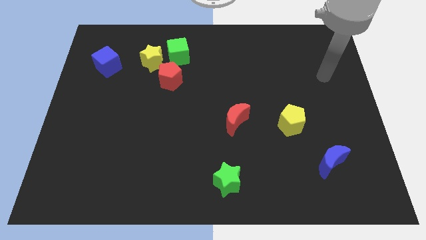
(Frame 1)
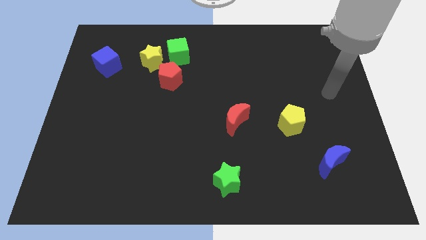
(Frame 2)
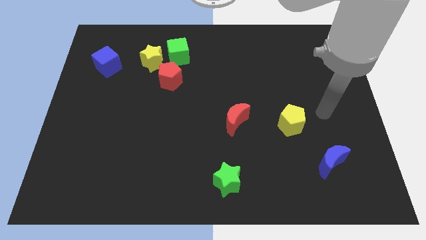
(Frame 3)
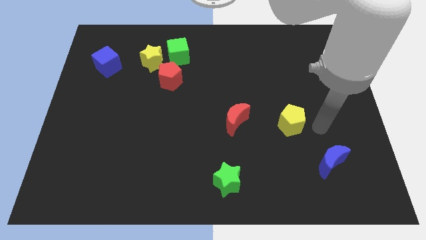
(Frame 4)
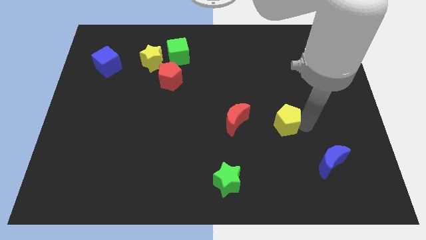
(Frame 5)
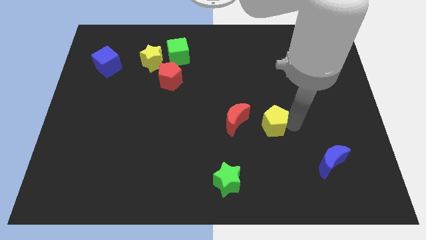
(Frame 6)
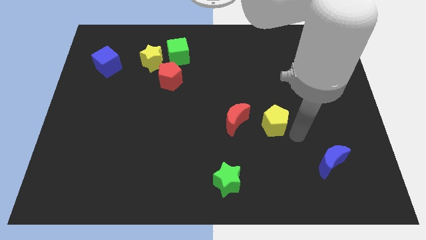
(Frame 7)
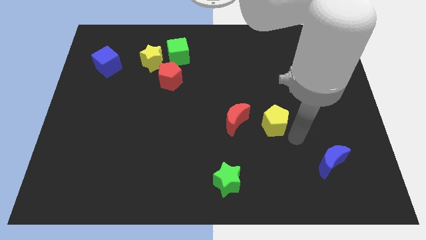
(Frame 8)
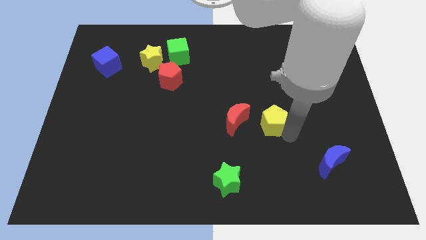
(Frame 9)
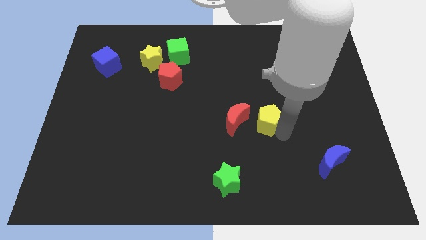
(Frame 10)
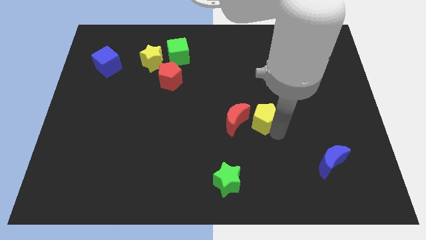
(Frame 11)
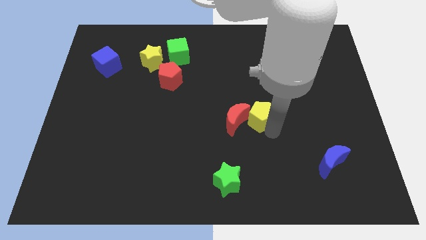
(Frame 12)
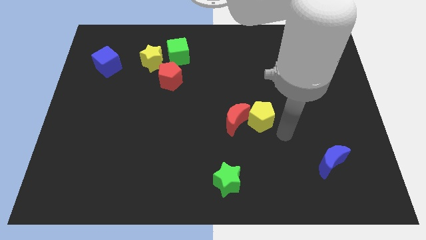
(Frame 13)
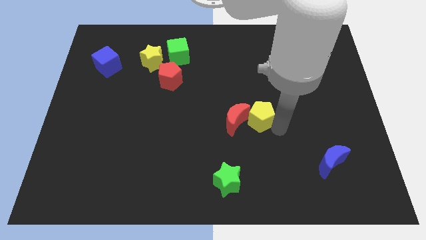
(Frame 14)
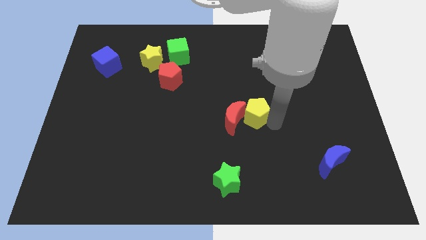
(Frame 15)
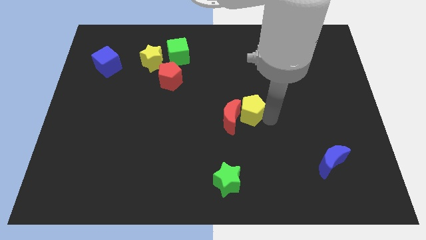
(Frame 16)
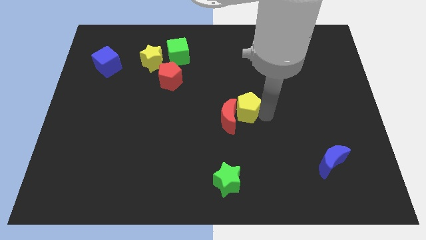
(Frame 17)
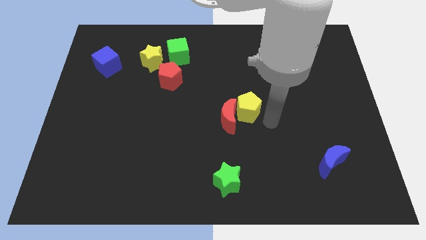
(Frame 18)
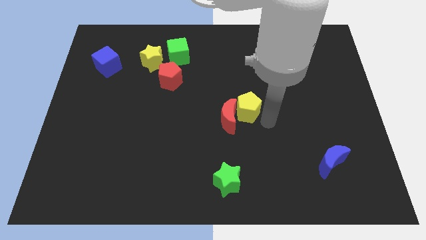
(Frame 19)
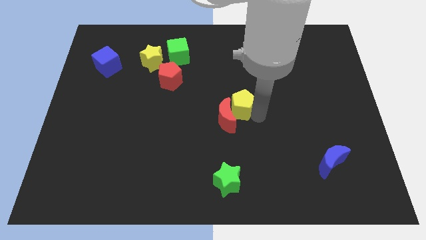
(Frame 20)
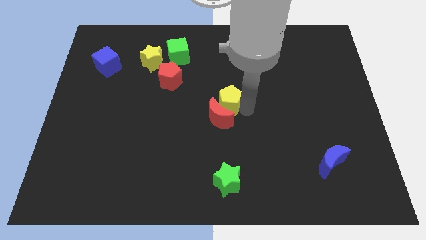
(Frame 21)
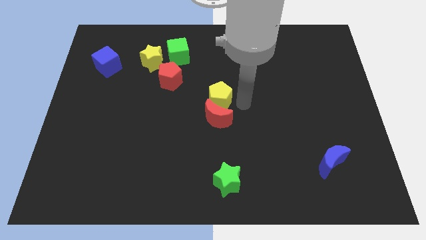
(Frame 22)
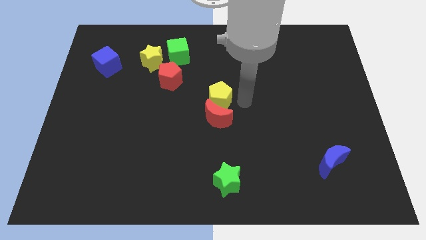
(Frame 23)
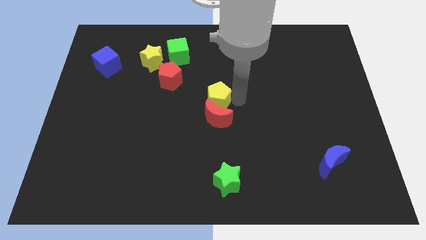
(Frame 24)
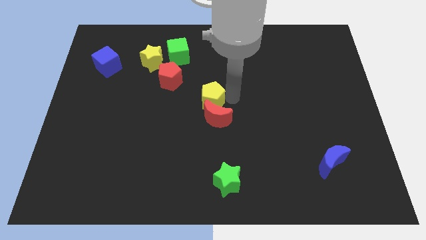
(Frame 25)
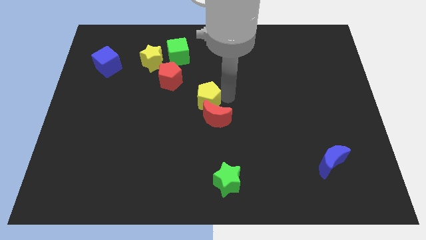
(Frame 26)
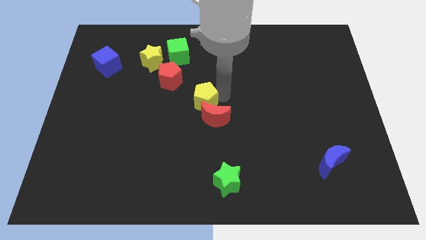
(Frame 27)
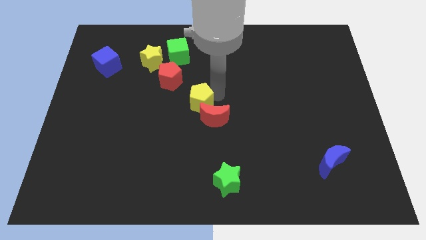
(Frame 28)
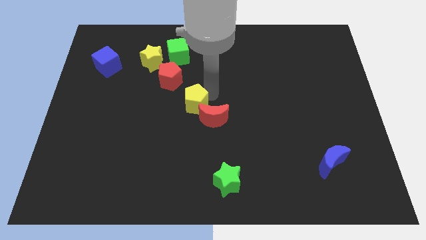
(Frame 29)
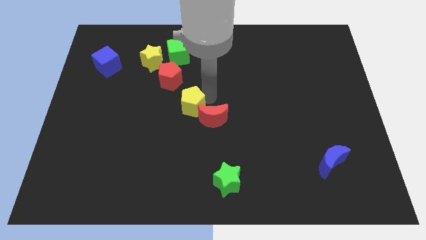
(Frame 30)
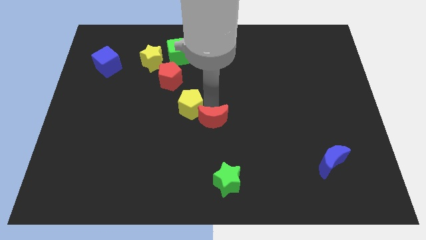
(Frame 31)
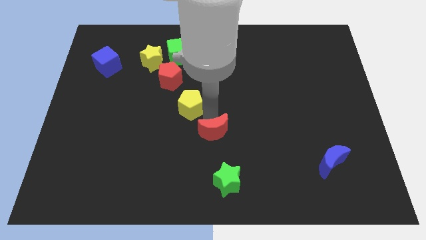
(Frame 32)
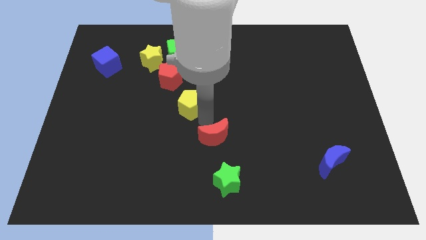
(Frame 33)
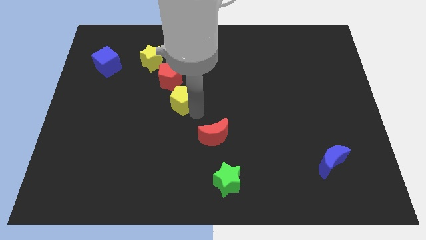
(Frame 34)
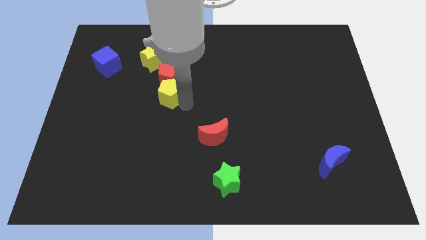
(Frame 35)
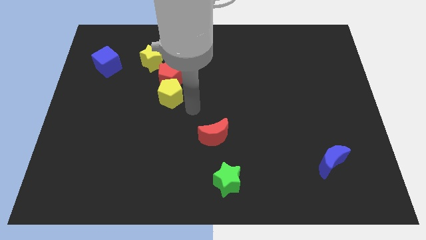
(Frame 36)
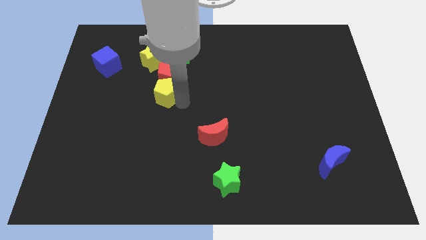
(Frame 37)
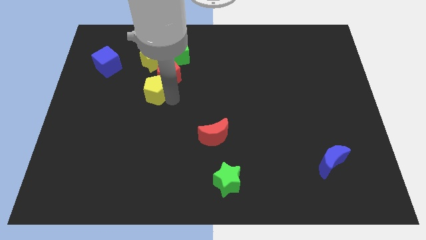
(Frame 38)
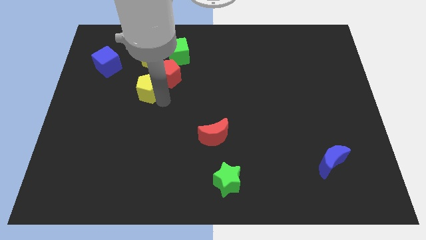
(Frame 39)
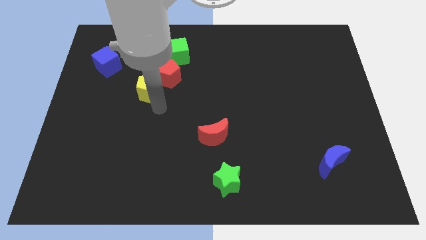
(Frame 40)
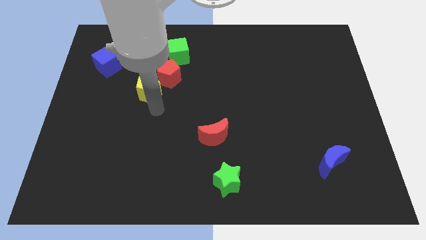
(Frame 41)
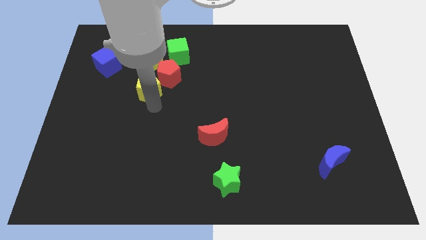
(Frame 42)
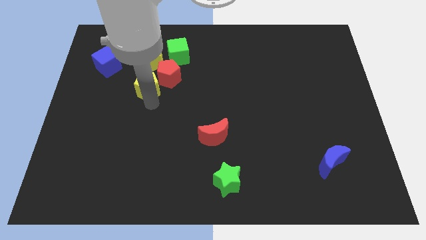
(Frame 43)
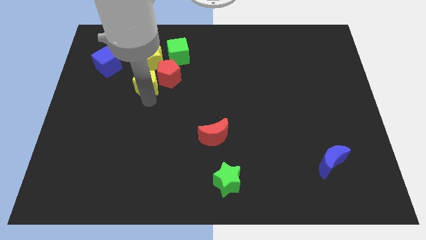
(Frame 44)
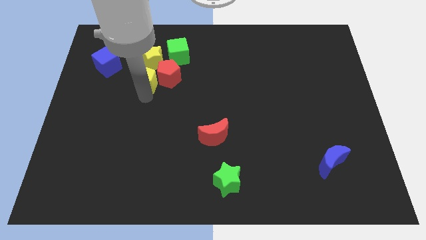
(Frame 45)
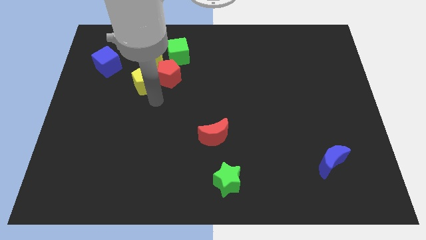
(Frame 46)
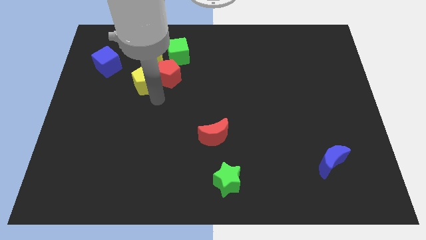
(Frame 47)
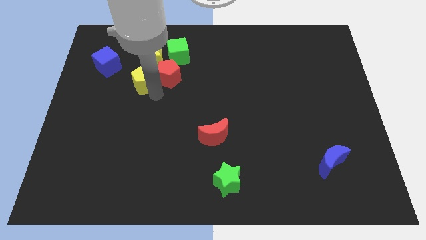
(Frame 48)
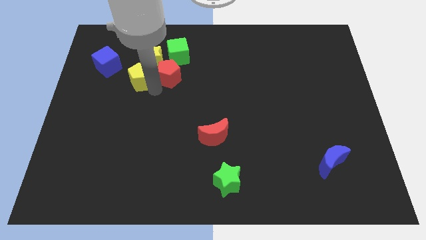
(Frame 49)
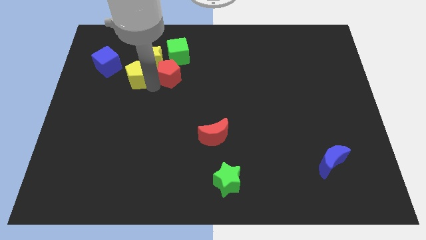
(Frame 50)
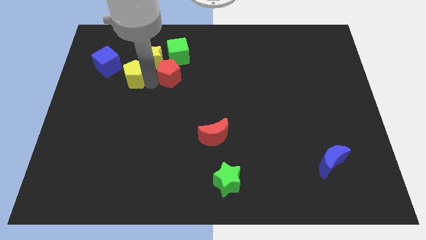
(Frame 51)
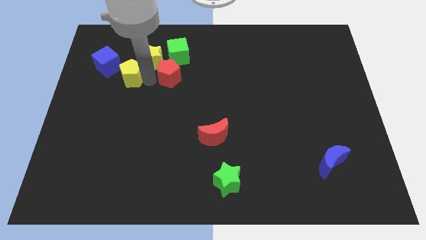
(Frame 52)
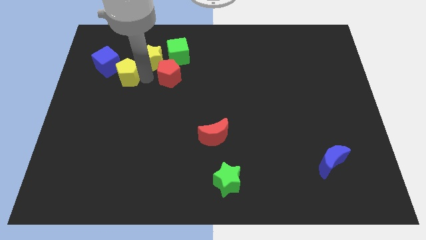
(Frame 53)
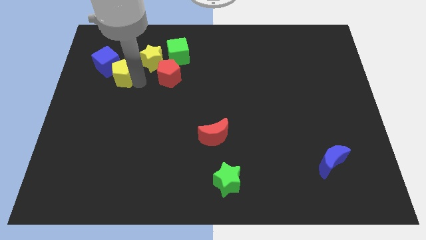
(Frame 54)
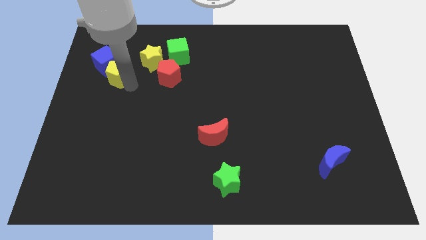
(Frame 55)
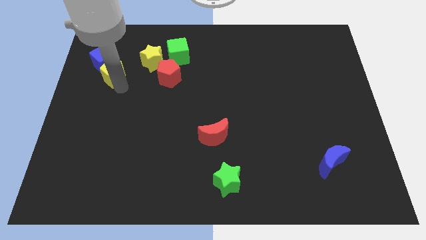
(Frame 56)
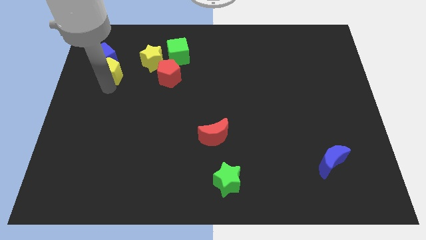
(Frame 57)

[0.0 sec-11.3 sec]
slide the yellow pentagon left of the yellow star

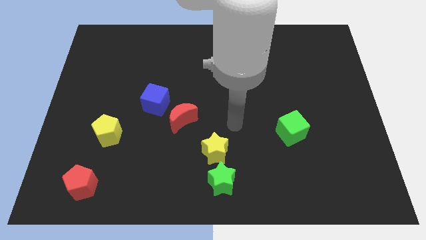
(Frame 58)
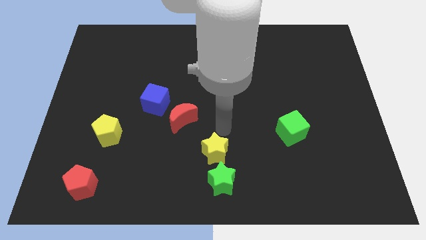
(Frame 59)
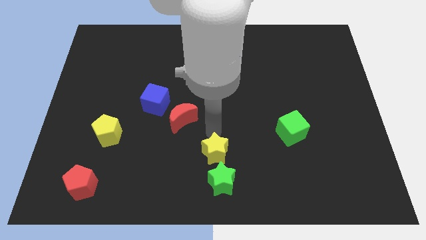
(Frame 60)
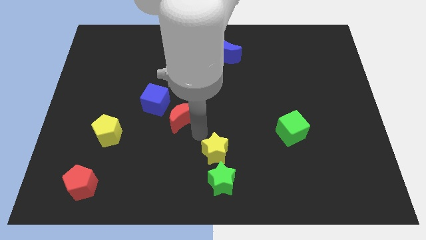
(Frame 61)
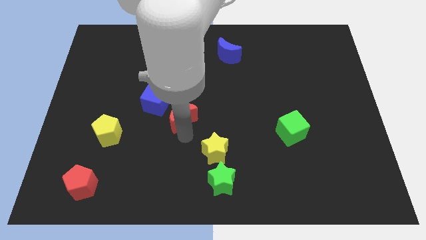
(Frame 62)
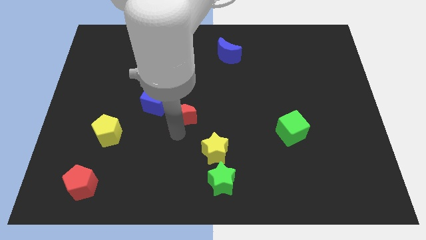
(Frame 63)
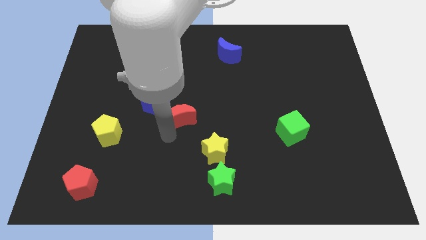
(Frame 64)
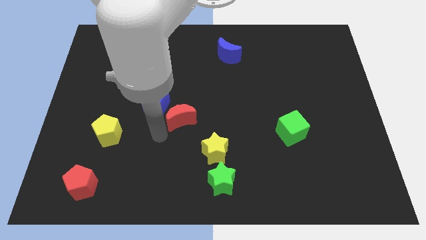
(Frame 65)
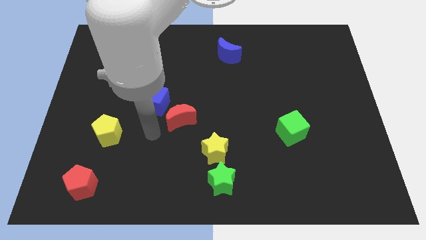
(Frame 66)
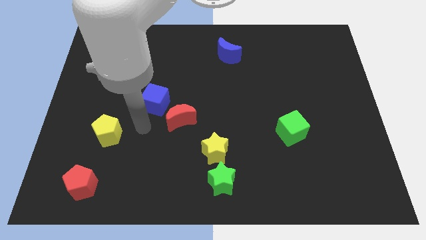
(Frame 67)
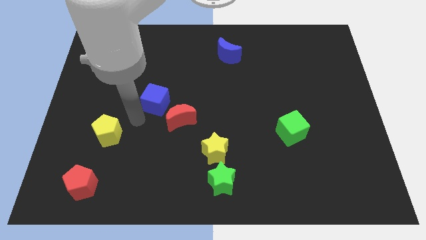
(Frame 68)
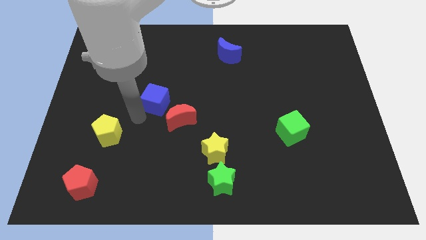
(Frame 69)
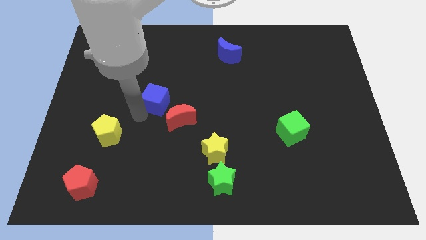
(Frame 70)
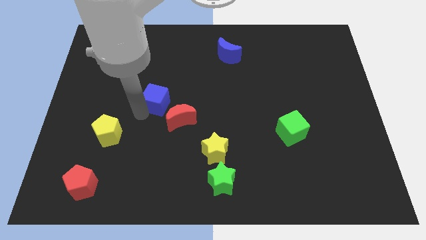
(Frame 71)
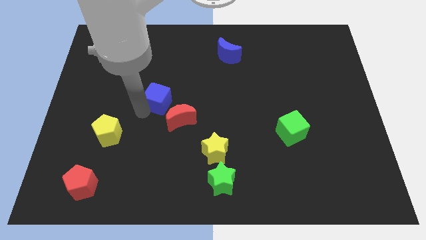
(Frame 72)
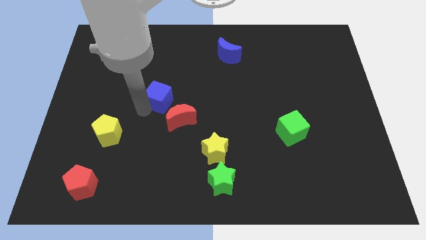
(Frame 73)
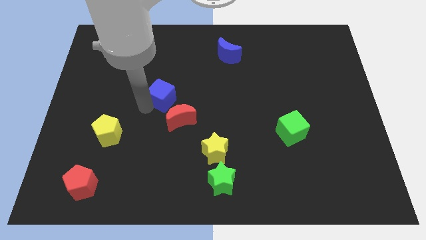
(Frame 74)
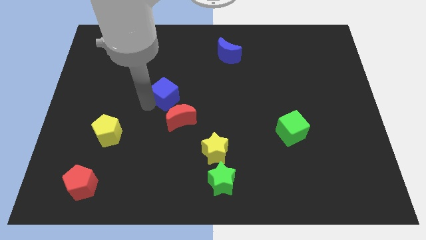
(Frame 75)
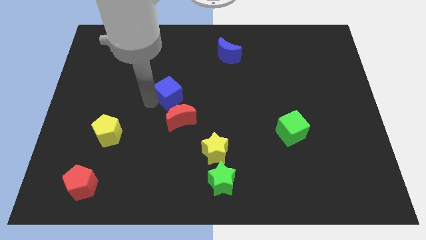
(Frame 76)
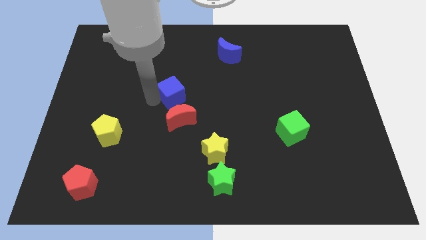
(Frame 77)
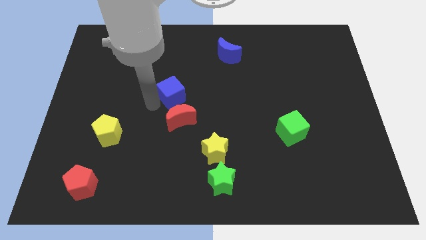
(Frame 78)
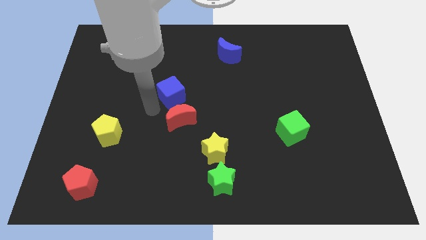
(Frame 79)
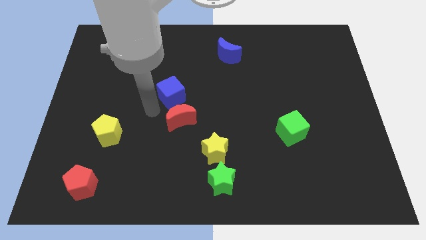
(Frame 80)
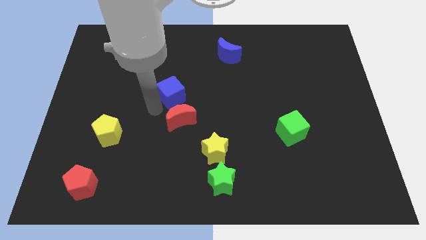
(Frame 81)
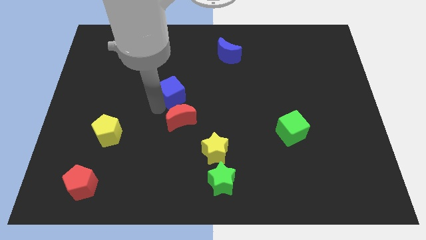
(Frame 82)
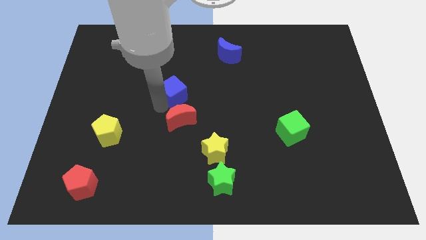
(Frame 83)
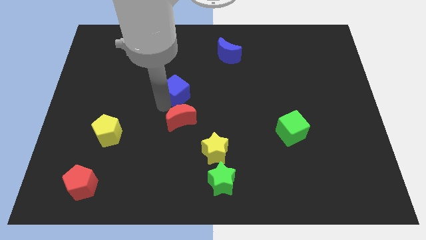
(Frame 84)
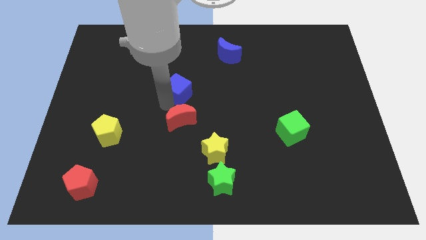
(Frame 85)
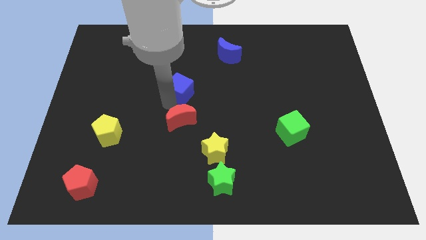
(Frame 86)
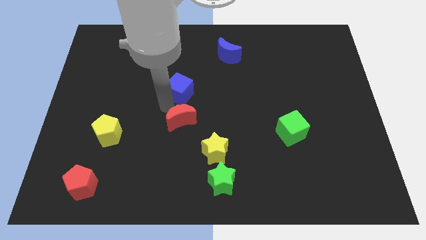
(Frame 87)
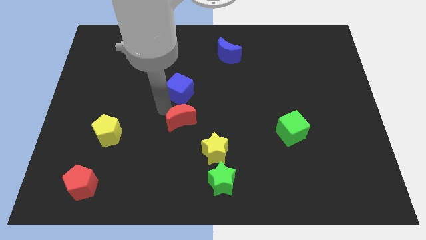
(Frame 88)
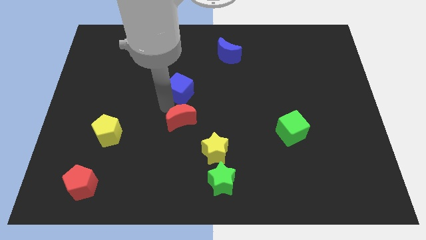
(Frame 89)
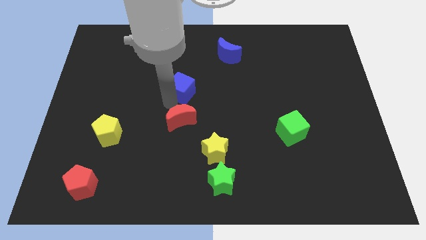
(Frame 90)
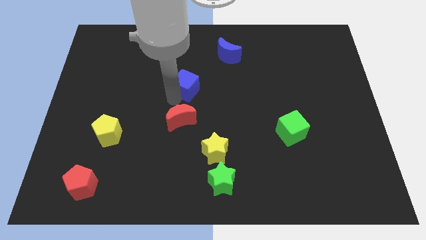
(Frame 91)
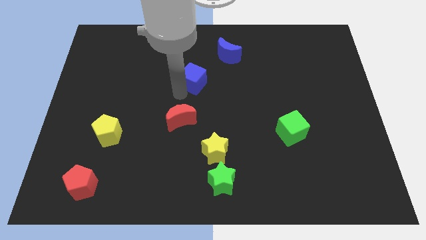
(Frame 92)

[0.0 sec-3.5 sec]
slide the blue cube to the bottom left side of the blue moon
